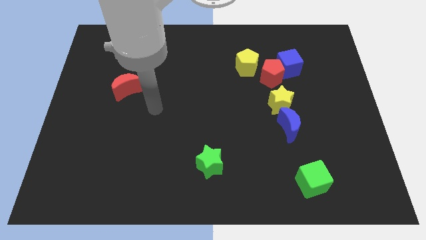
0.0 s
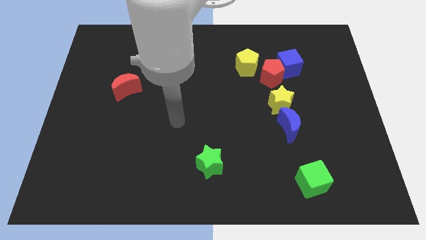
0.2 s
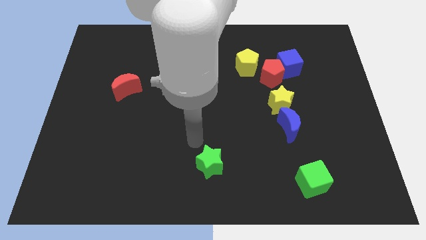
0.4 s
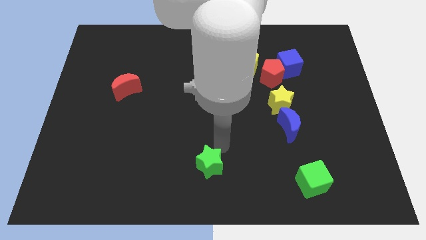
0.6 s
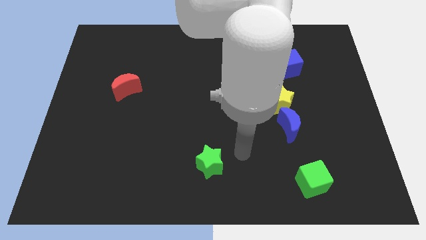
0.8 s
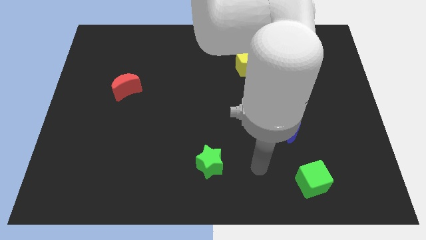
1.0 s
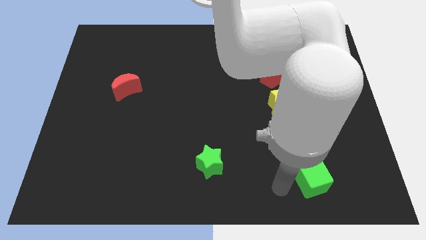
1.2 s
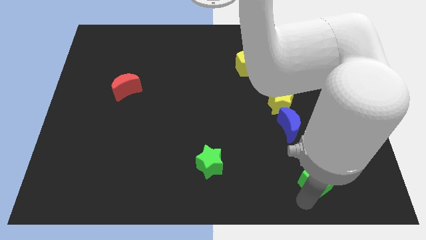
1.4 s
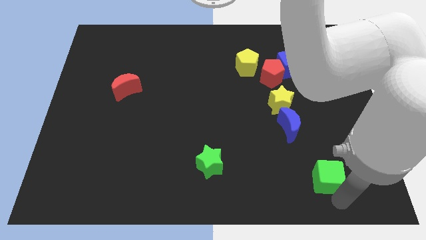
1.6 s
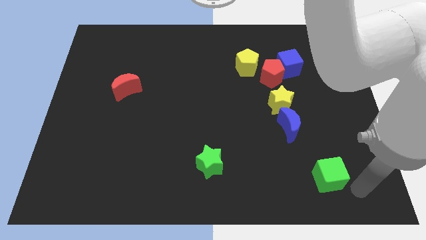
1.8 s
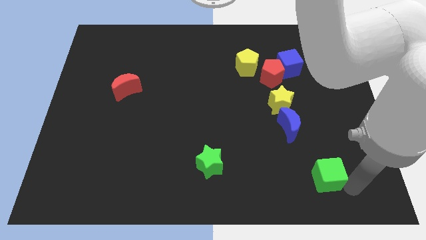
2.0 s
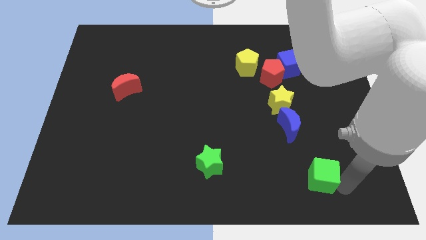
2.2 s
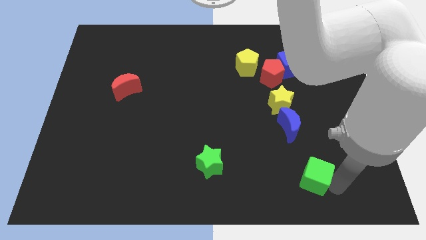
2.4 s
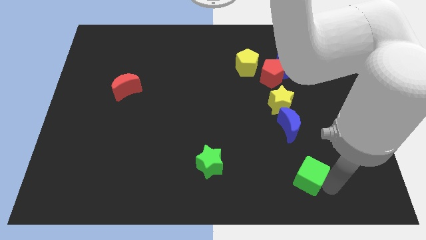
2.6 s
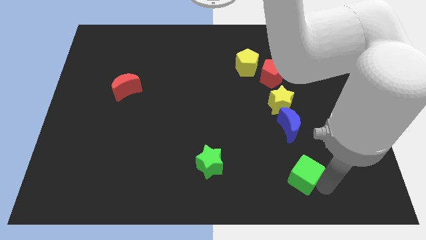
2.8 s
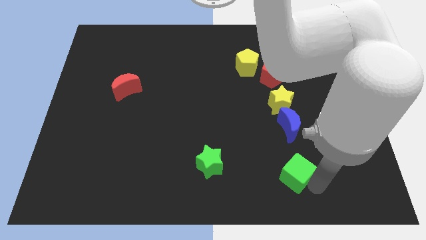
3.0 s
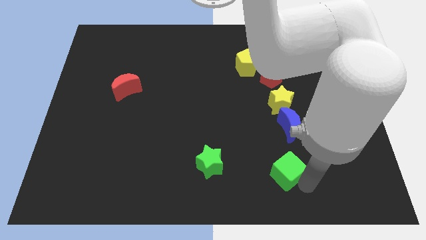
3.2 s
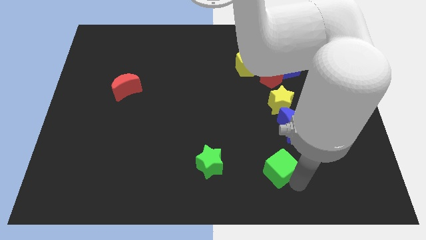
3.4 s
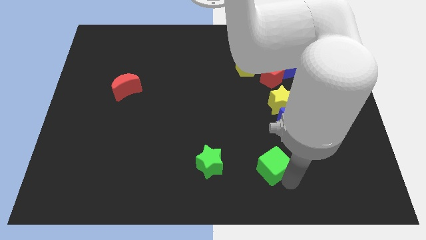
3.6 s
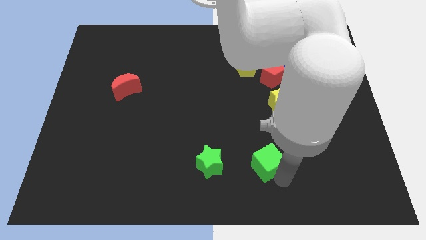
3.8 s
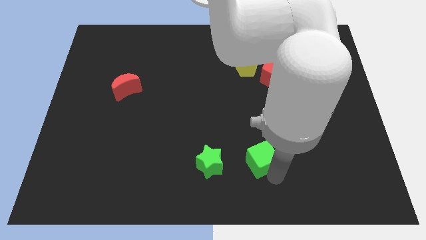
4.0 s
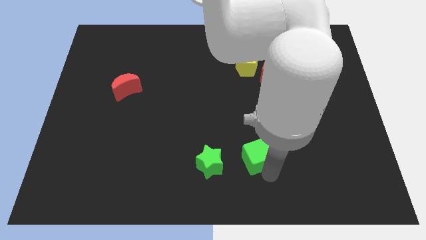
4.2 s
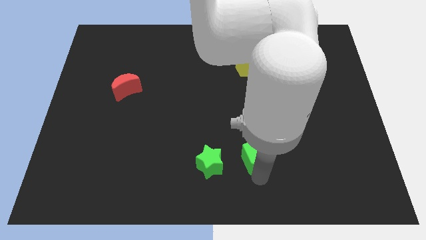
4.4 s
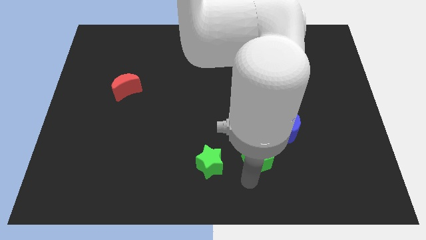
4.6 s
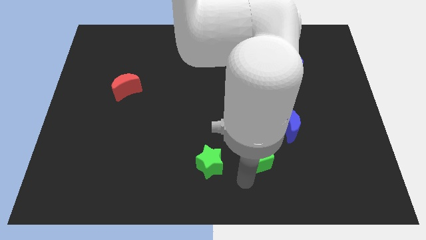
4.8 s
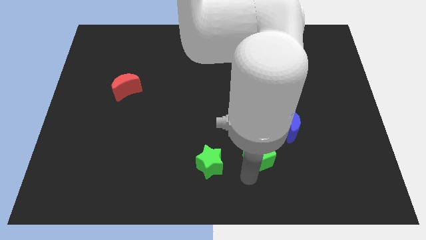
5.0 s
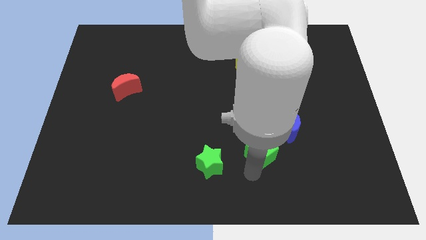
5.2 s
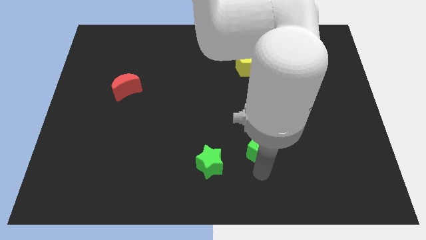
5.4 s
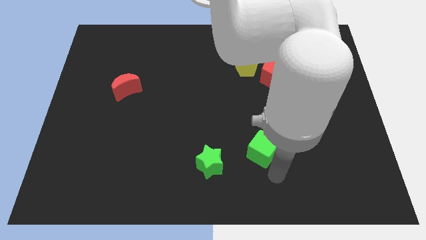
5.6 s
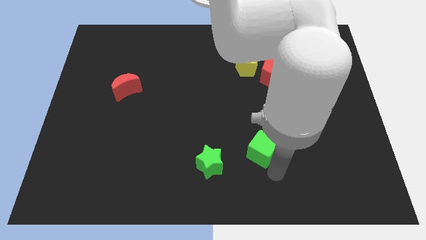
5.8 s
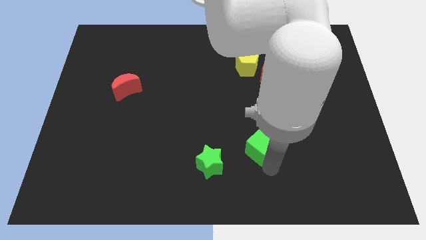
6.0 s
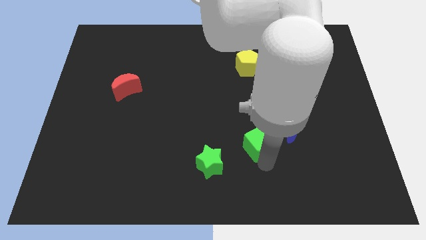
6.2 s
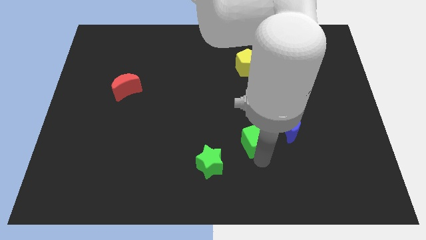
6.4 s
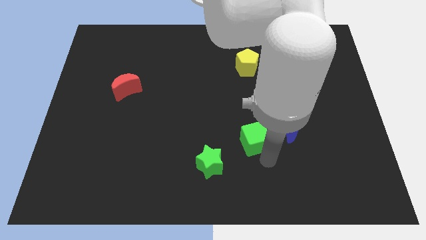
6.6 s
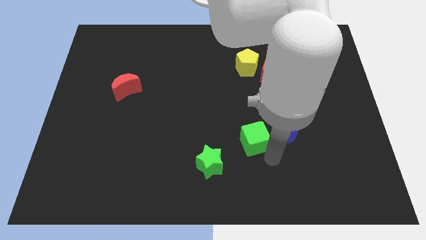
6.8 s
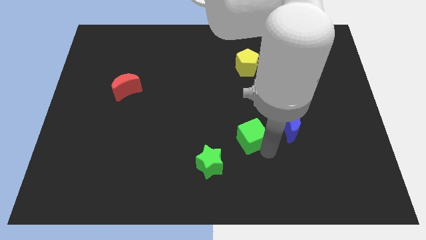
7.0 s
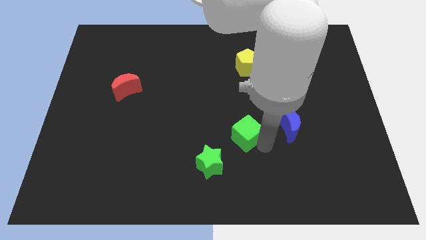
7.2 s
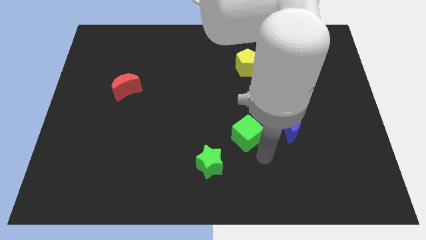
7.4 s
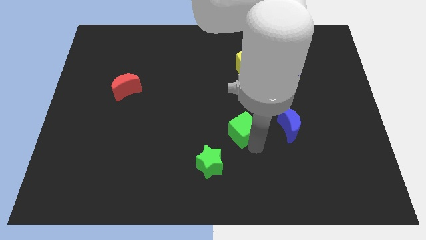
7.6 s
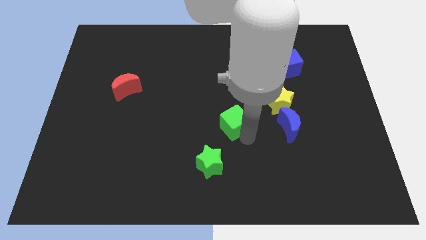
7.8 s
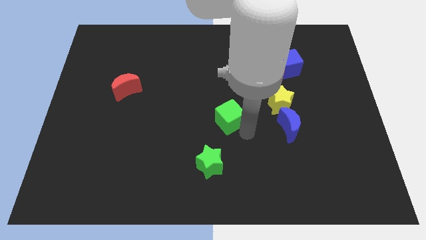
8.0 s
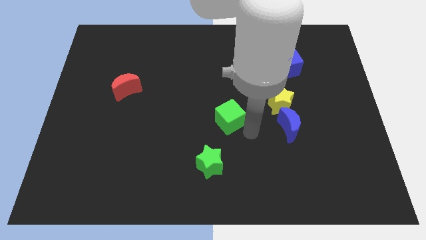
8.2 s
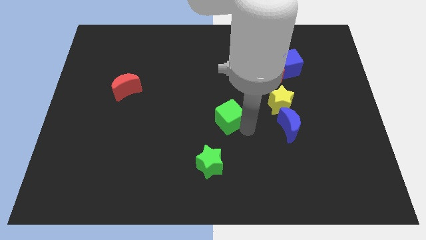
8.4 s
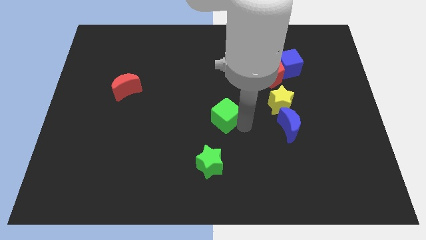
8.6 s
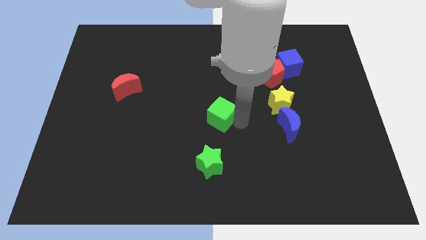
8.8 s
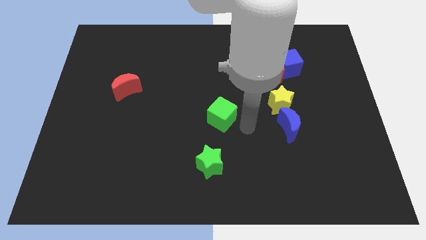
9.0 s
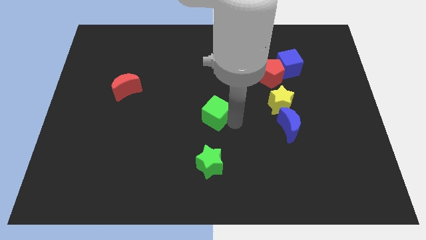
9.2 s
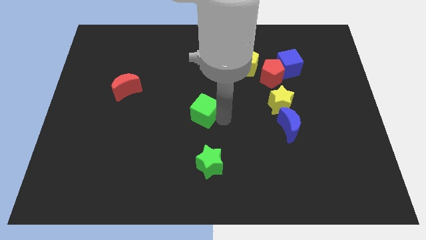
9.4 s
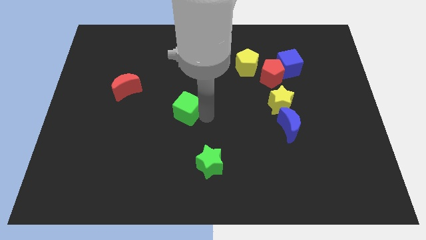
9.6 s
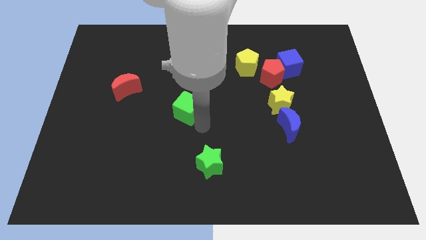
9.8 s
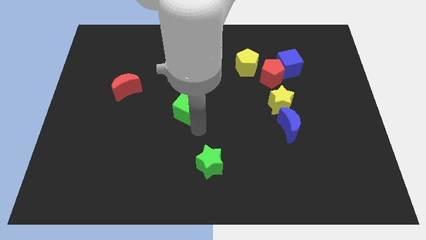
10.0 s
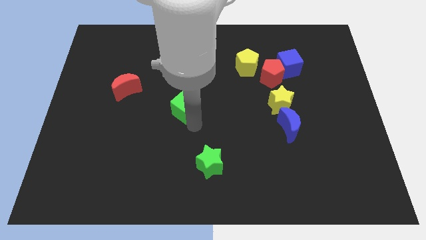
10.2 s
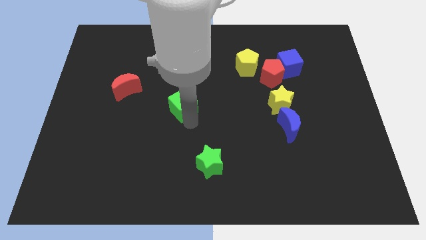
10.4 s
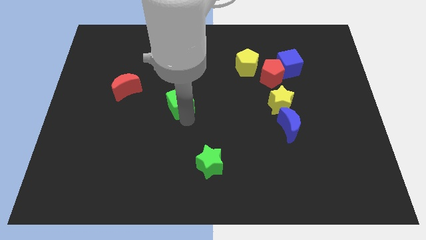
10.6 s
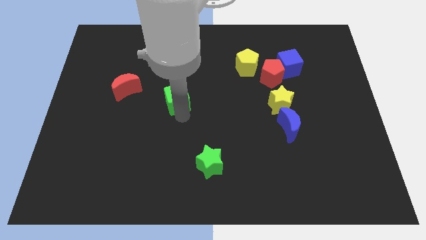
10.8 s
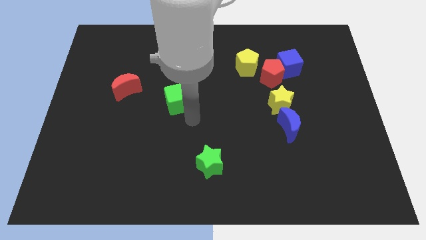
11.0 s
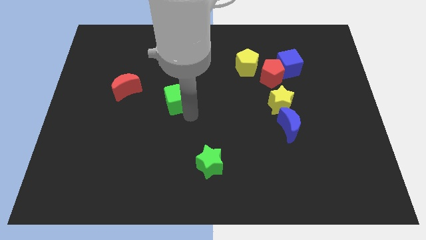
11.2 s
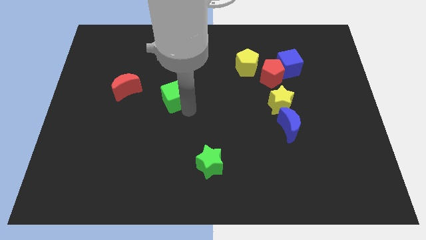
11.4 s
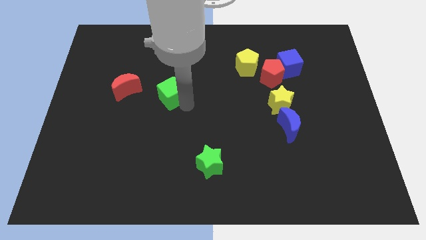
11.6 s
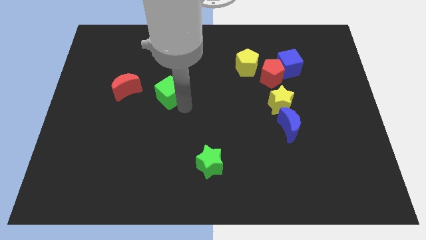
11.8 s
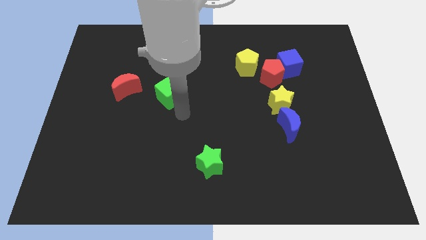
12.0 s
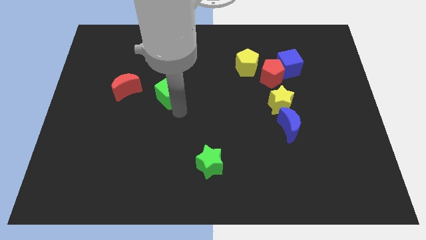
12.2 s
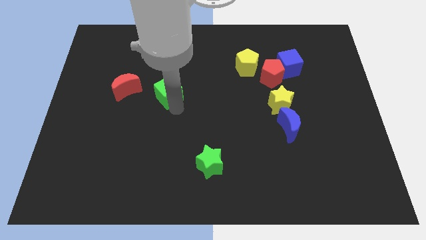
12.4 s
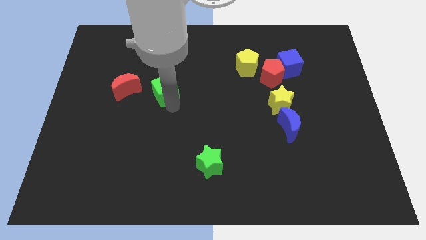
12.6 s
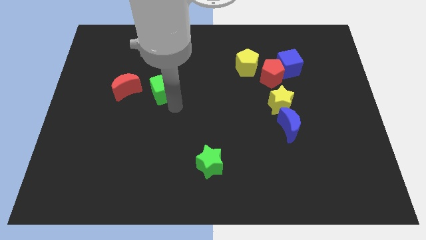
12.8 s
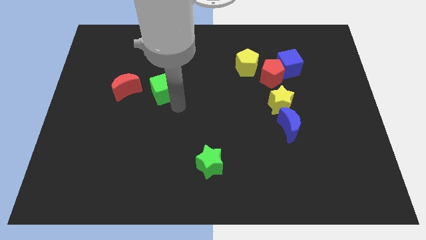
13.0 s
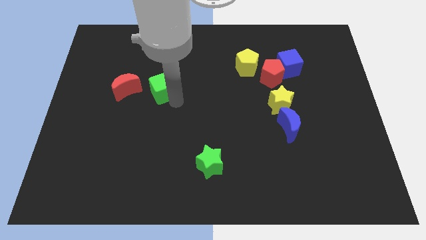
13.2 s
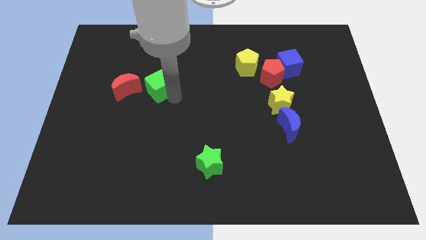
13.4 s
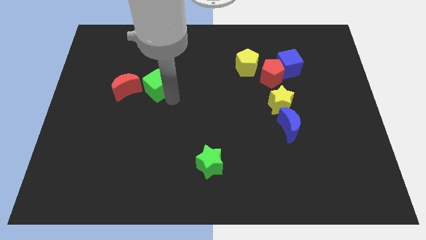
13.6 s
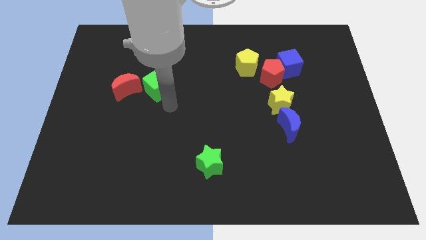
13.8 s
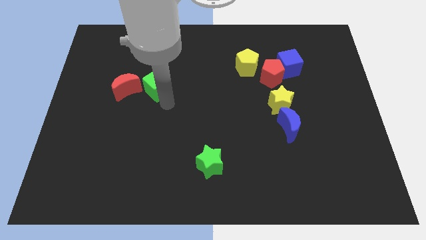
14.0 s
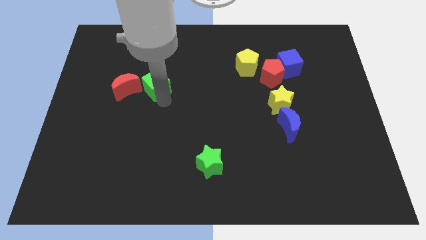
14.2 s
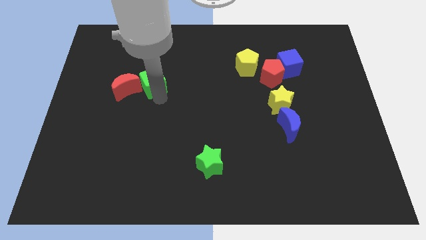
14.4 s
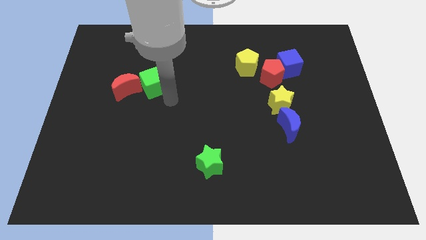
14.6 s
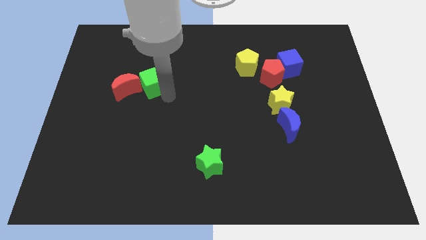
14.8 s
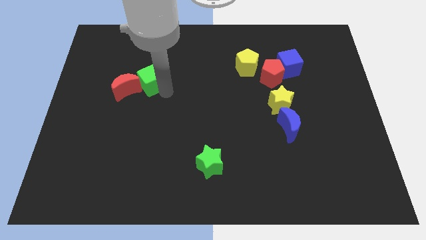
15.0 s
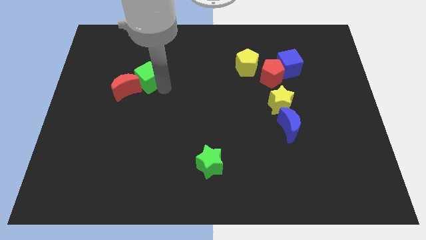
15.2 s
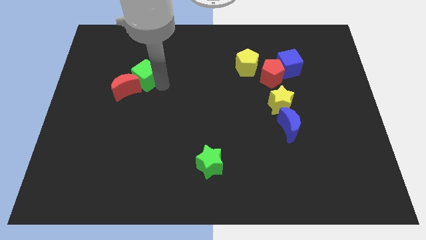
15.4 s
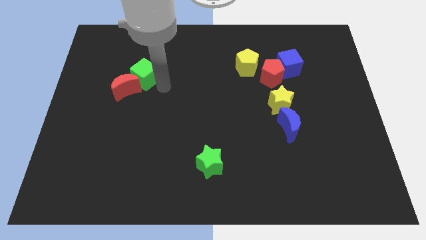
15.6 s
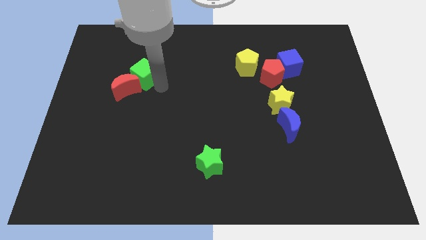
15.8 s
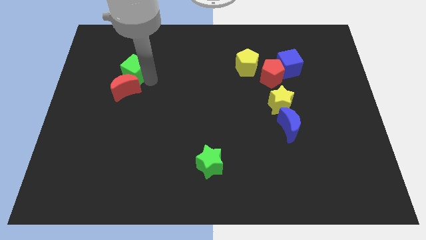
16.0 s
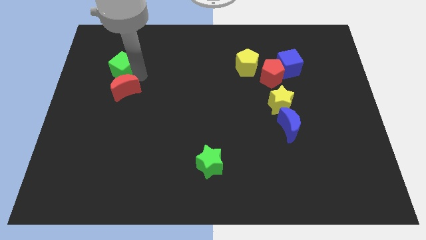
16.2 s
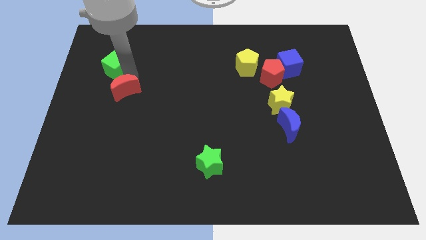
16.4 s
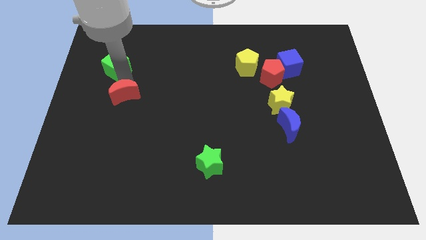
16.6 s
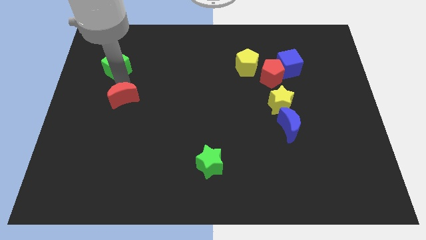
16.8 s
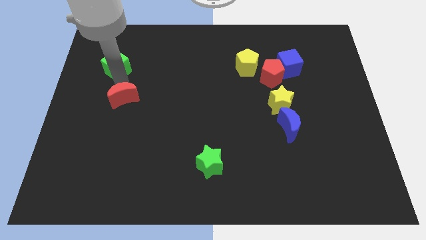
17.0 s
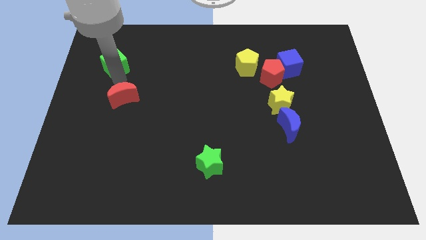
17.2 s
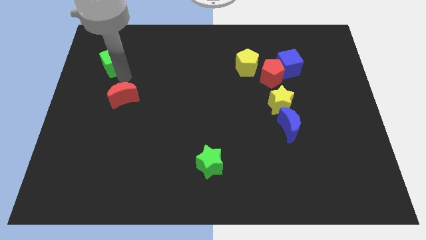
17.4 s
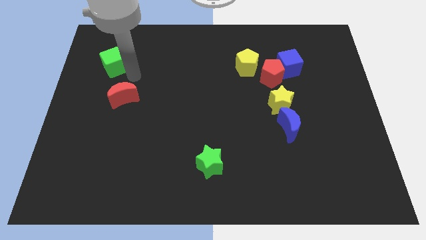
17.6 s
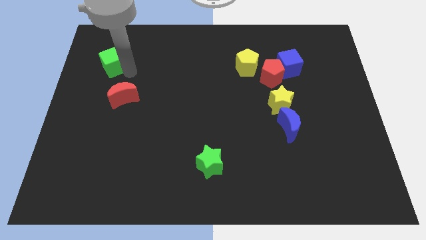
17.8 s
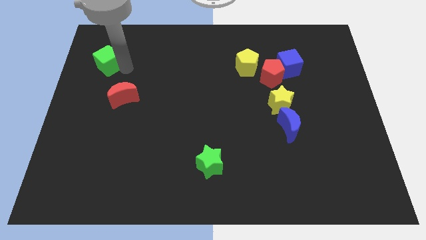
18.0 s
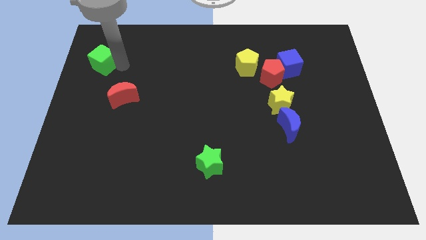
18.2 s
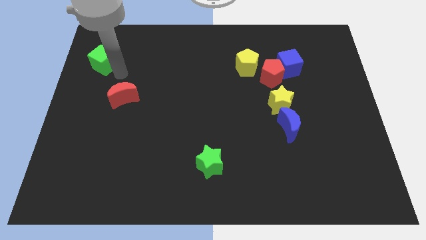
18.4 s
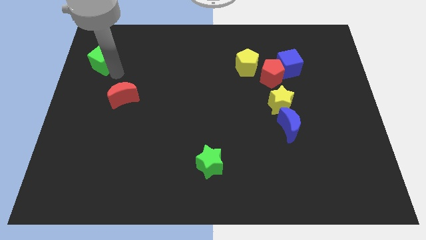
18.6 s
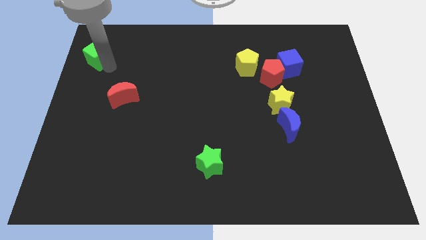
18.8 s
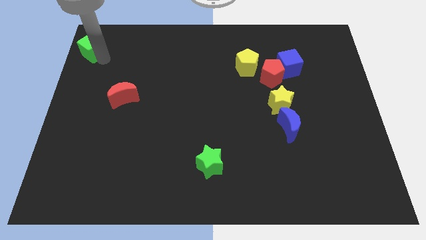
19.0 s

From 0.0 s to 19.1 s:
move the green cube to the top left of the board
